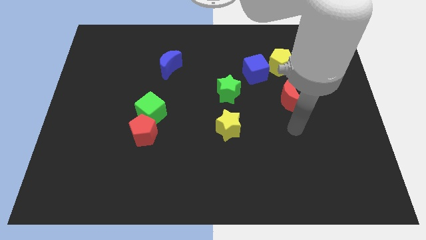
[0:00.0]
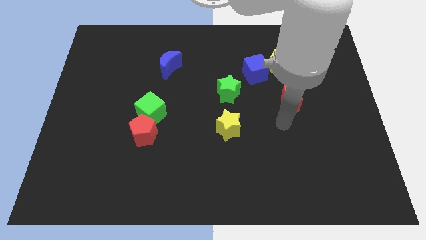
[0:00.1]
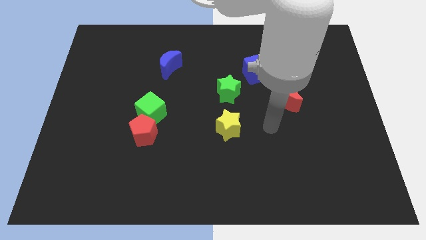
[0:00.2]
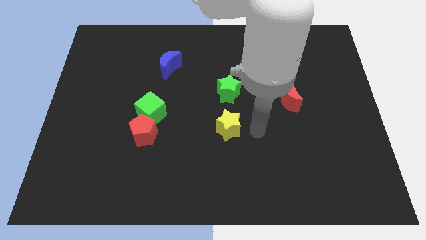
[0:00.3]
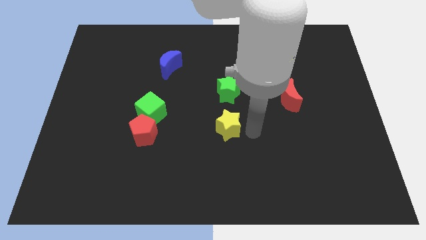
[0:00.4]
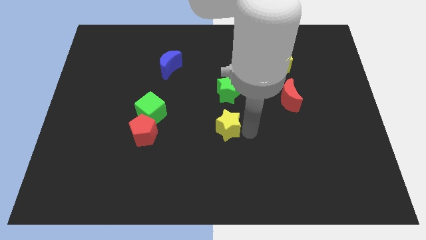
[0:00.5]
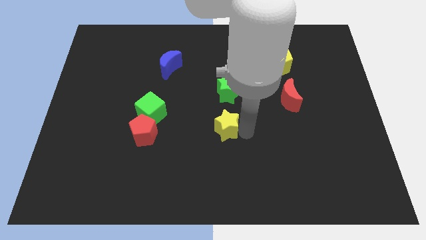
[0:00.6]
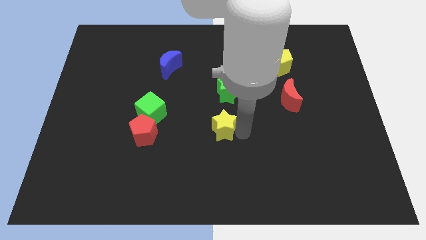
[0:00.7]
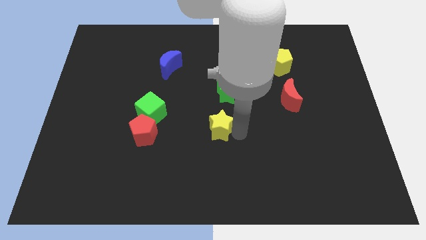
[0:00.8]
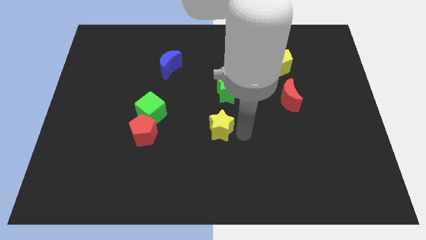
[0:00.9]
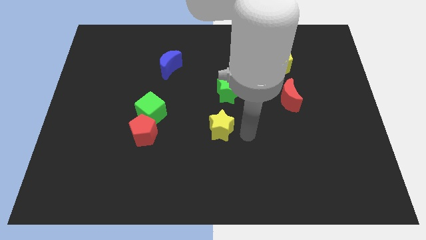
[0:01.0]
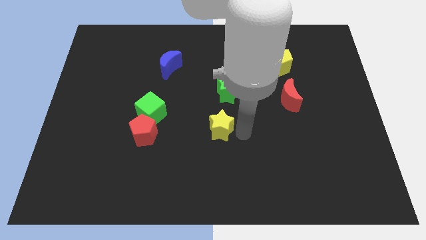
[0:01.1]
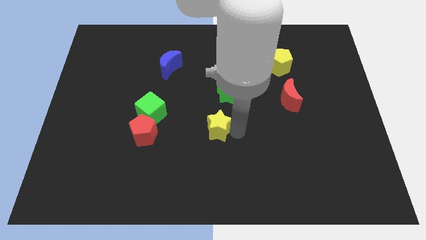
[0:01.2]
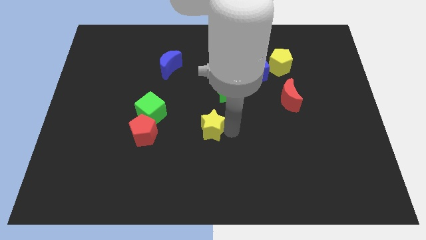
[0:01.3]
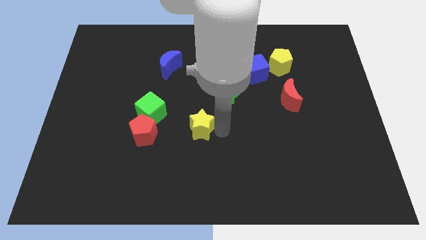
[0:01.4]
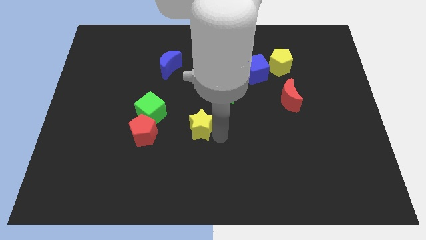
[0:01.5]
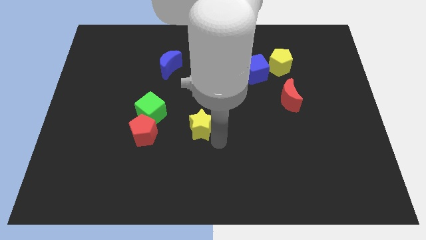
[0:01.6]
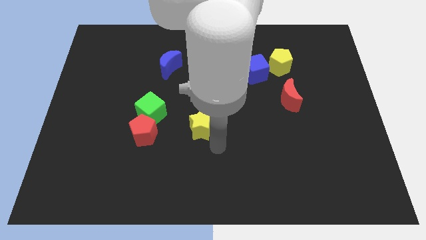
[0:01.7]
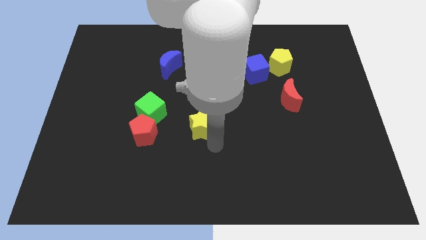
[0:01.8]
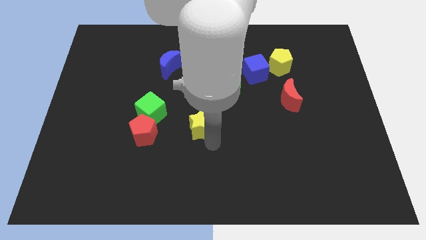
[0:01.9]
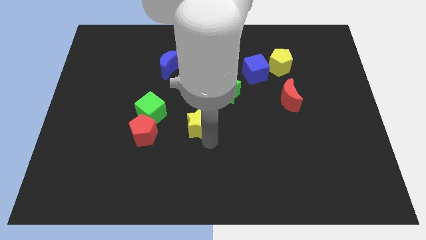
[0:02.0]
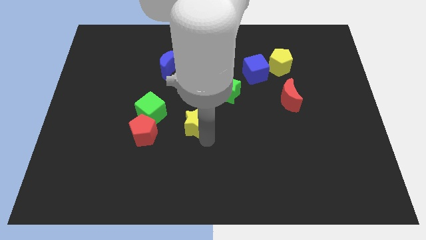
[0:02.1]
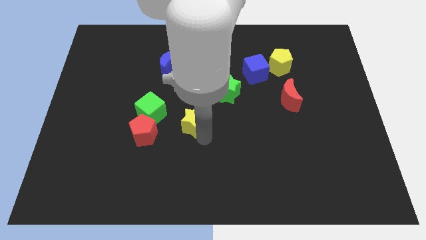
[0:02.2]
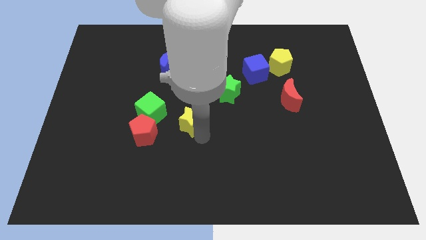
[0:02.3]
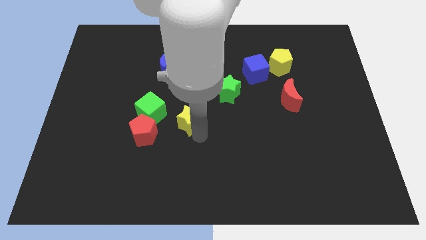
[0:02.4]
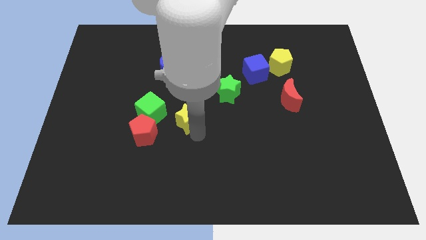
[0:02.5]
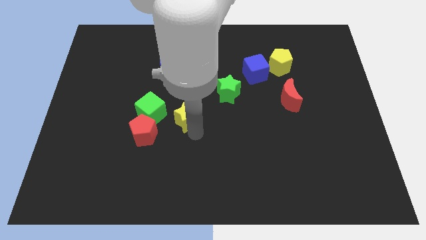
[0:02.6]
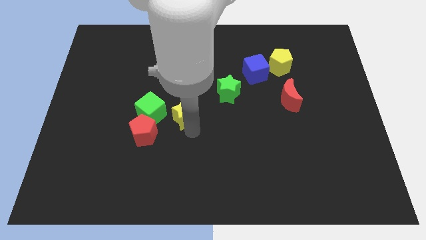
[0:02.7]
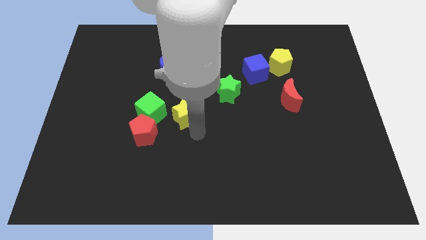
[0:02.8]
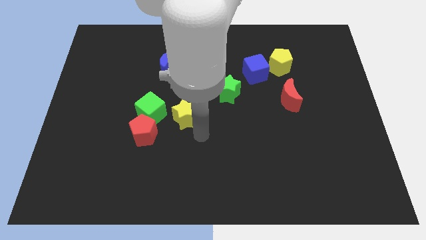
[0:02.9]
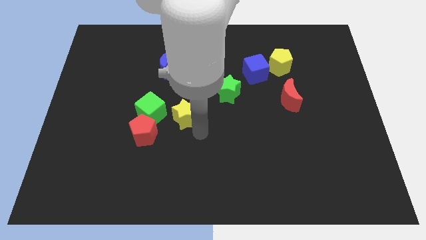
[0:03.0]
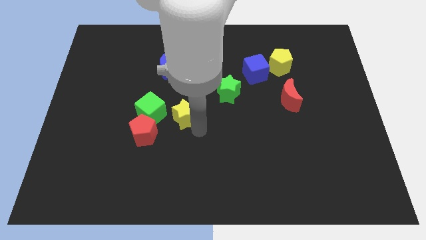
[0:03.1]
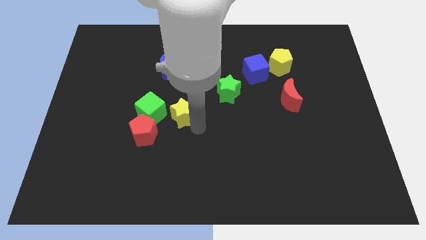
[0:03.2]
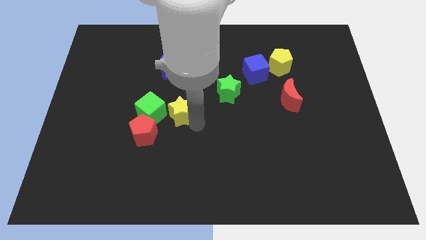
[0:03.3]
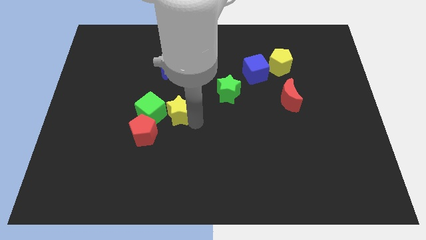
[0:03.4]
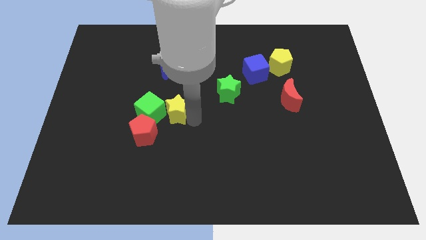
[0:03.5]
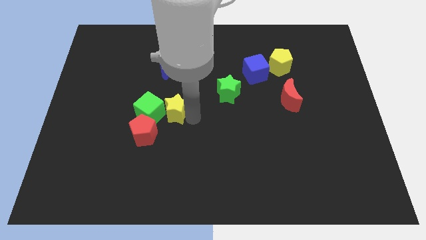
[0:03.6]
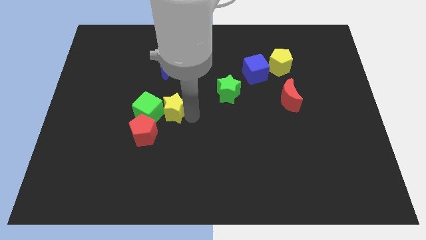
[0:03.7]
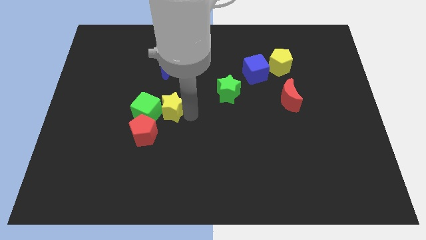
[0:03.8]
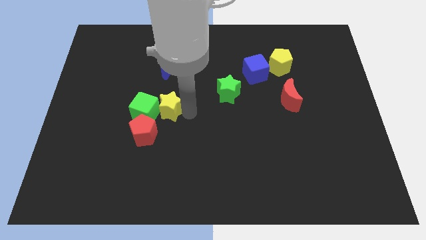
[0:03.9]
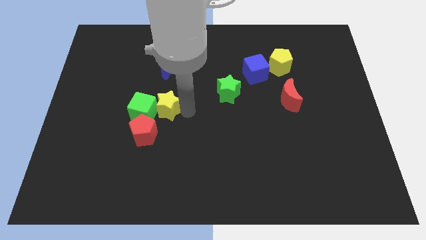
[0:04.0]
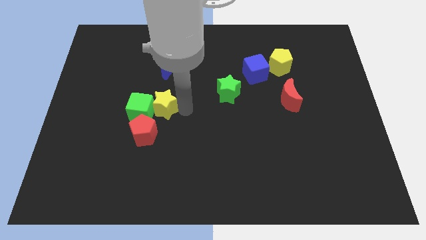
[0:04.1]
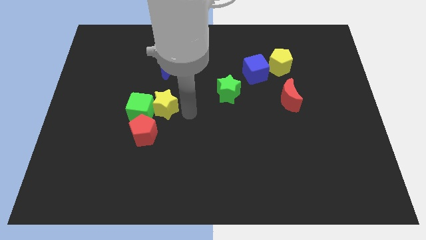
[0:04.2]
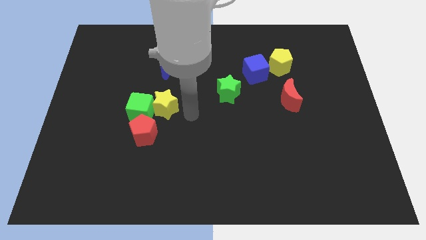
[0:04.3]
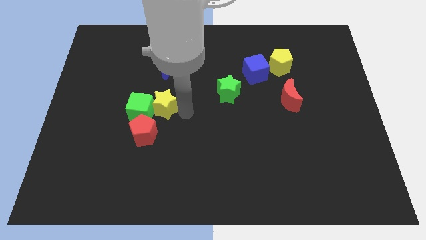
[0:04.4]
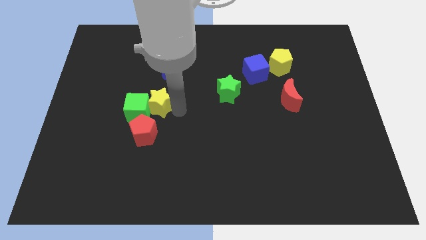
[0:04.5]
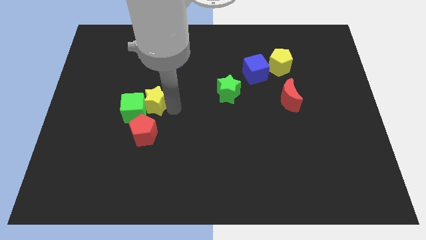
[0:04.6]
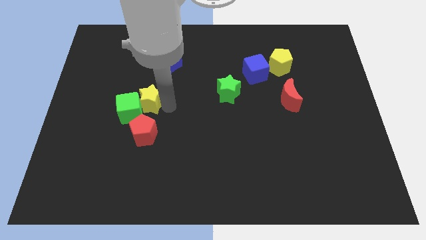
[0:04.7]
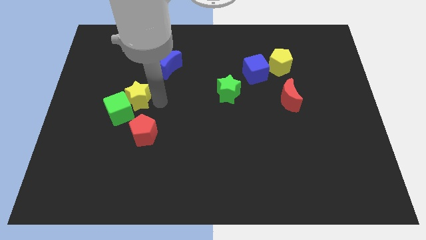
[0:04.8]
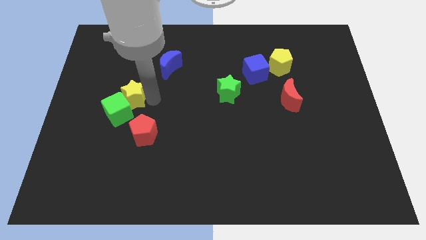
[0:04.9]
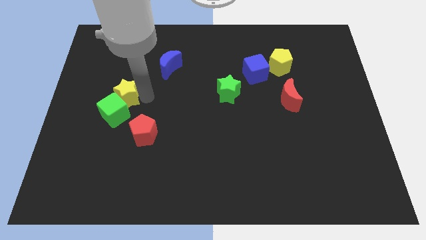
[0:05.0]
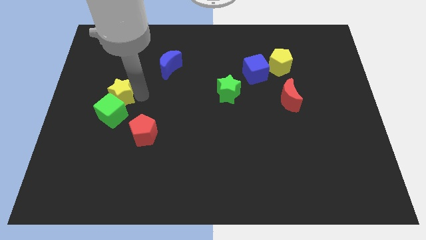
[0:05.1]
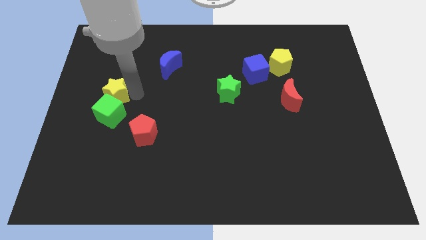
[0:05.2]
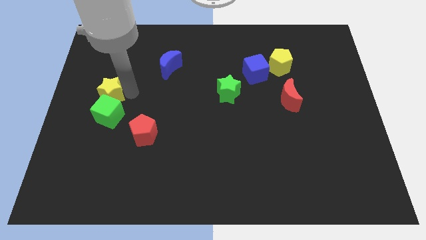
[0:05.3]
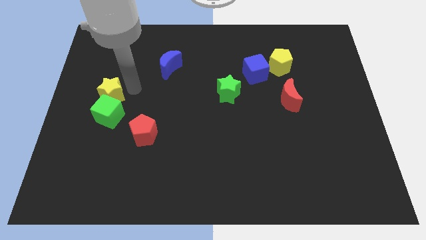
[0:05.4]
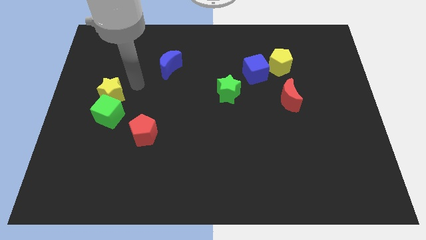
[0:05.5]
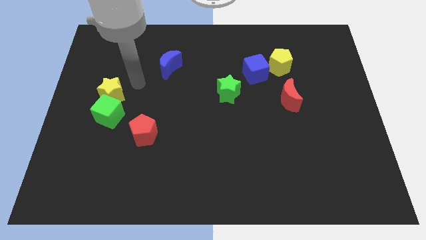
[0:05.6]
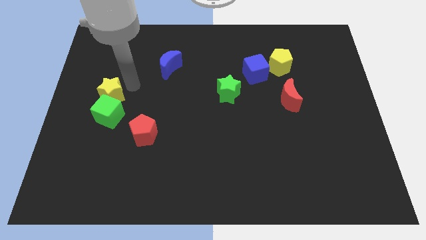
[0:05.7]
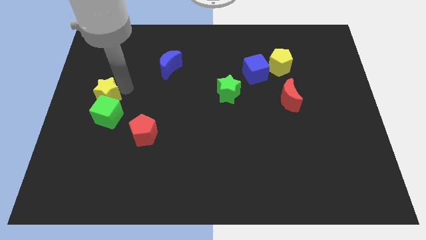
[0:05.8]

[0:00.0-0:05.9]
move the yellow star to the left side
